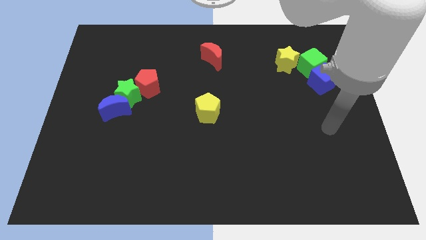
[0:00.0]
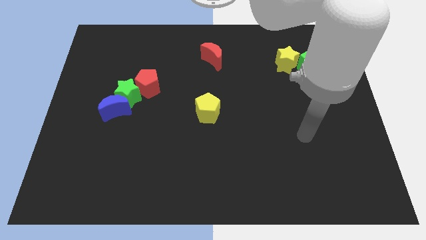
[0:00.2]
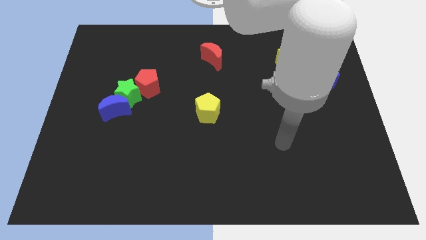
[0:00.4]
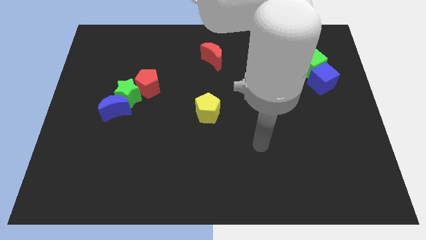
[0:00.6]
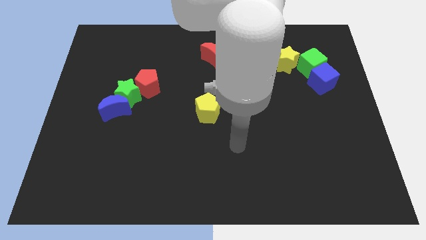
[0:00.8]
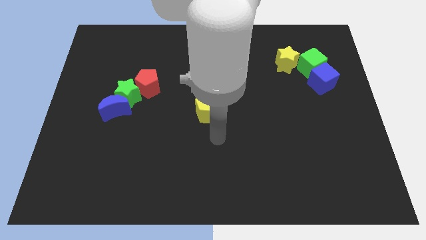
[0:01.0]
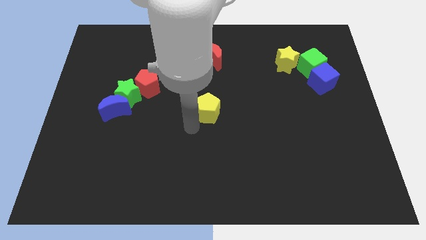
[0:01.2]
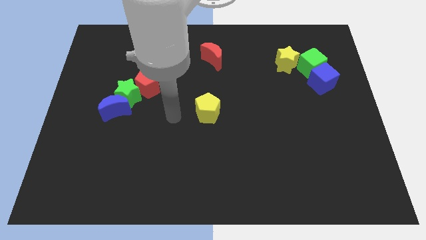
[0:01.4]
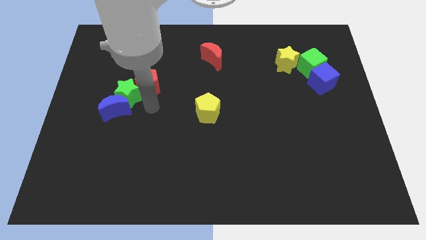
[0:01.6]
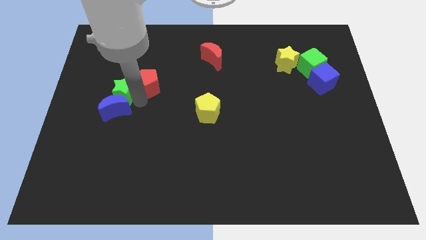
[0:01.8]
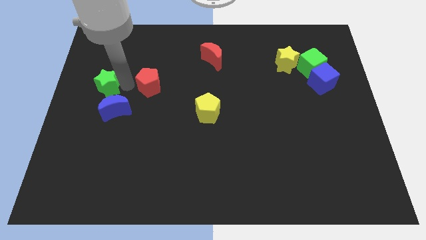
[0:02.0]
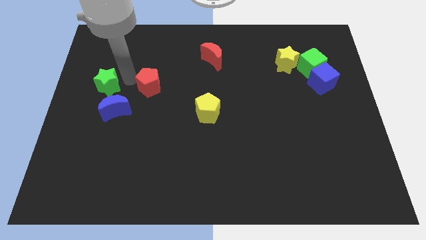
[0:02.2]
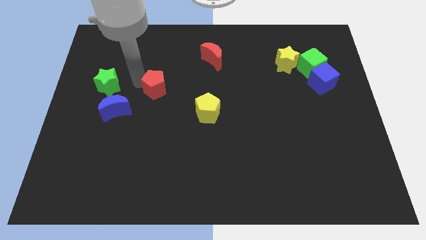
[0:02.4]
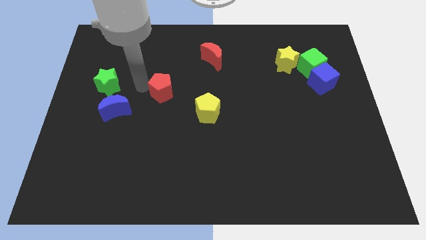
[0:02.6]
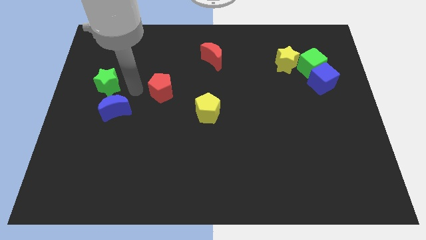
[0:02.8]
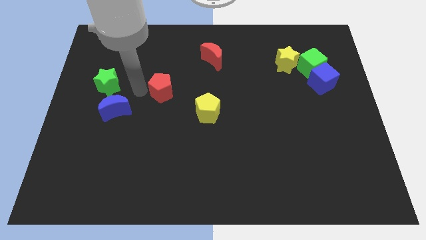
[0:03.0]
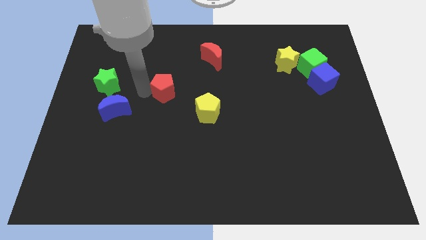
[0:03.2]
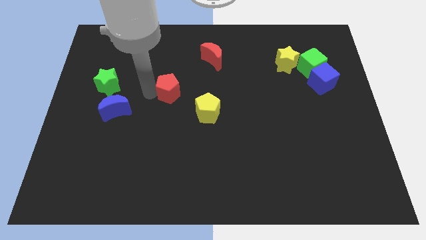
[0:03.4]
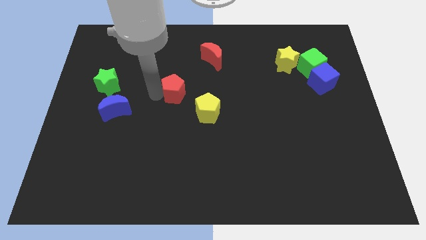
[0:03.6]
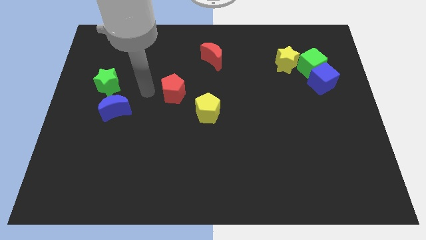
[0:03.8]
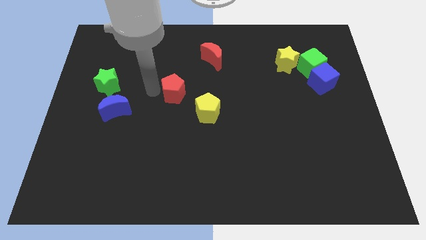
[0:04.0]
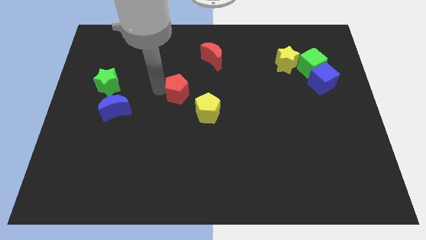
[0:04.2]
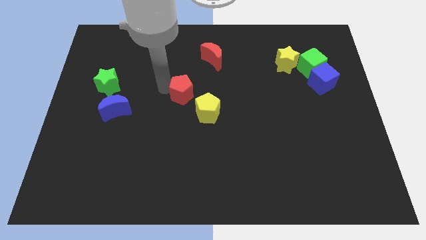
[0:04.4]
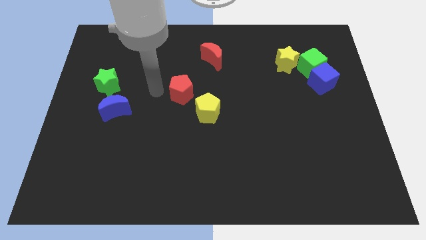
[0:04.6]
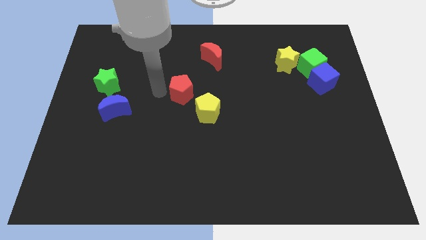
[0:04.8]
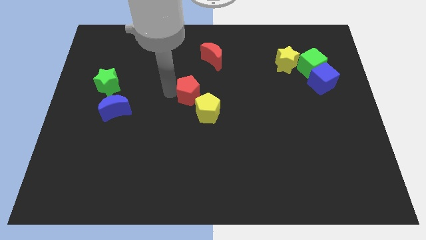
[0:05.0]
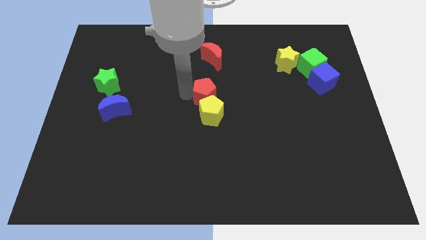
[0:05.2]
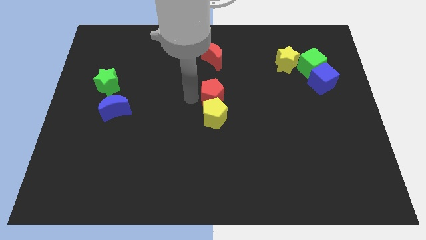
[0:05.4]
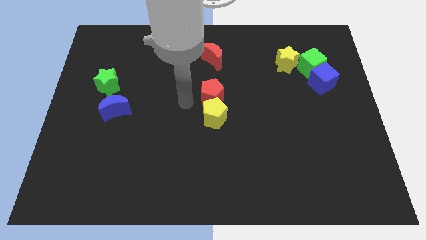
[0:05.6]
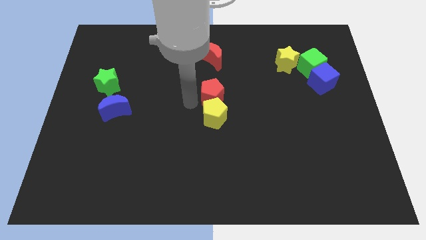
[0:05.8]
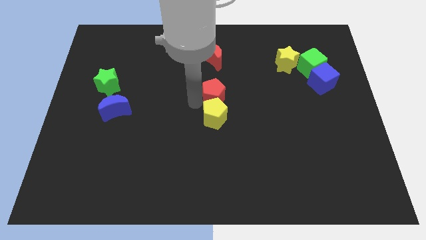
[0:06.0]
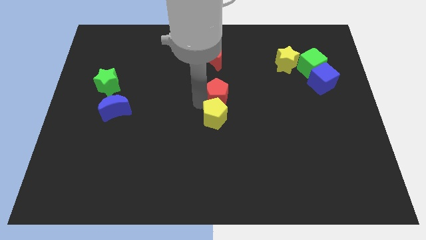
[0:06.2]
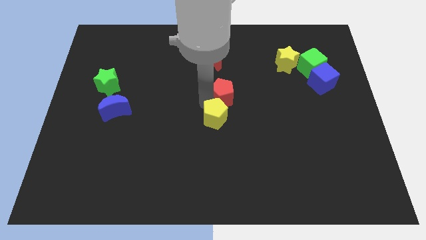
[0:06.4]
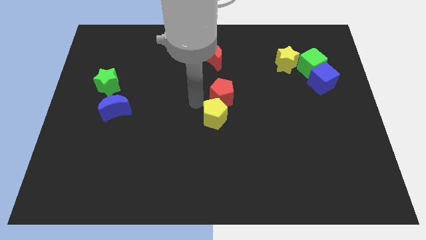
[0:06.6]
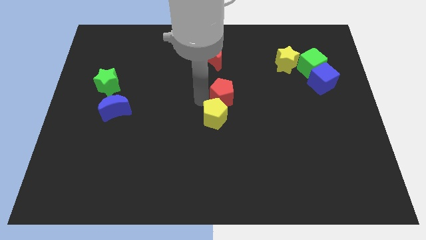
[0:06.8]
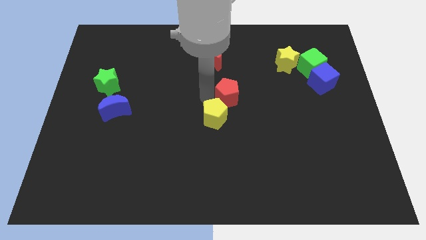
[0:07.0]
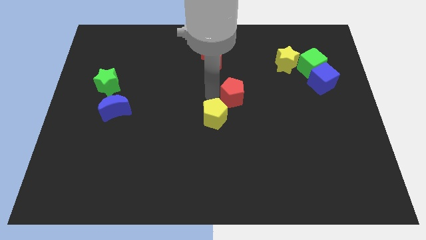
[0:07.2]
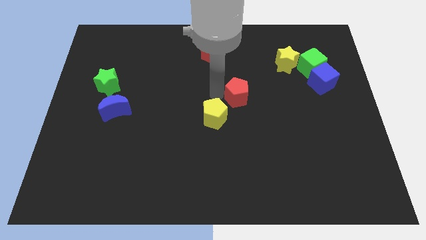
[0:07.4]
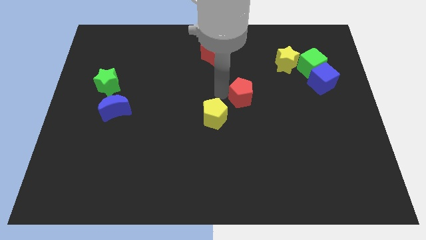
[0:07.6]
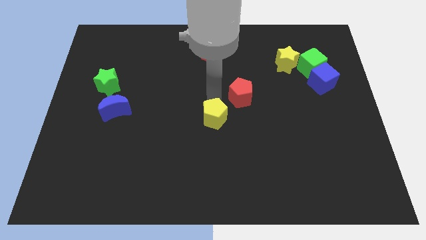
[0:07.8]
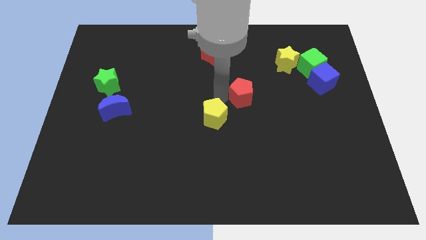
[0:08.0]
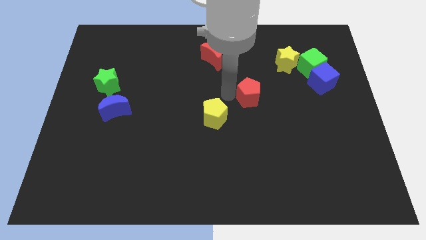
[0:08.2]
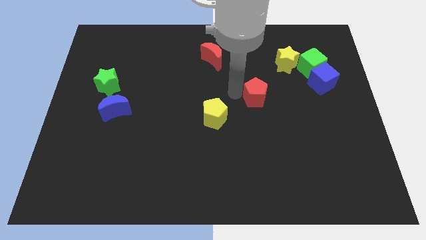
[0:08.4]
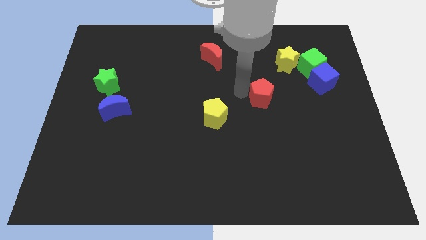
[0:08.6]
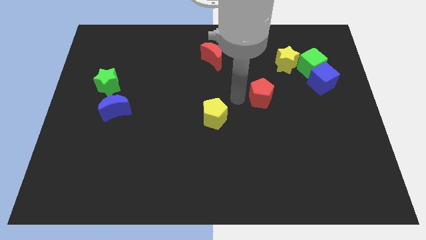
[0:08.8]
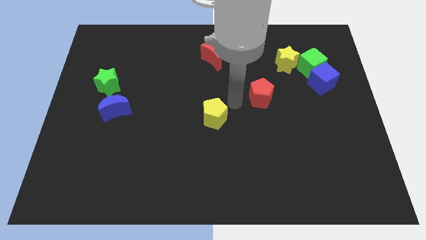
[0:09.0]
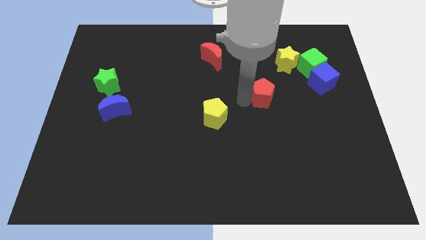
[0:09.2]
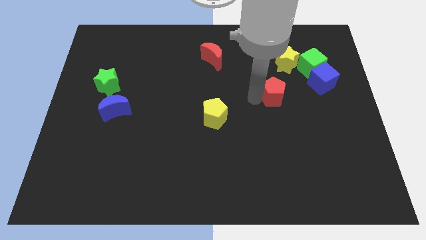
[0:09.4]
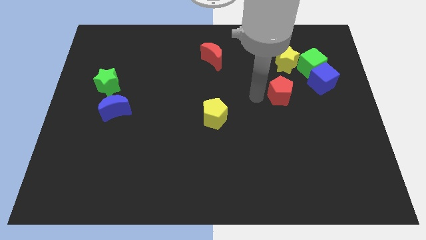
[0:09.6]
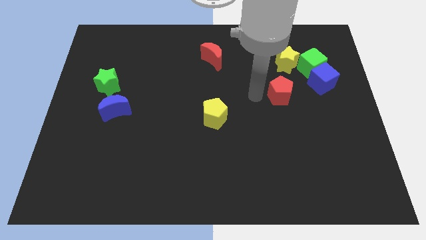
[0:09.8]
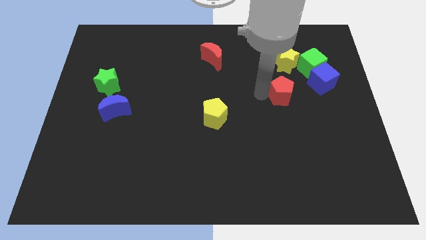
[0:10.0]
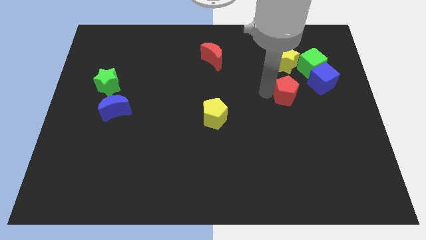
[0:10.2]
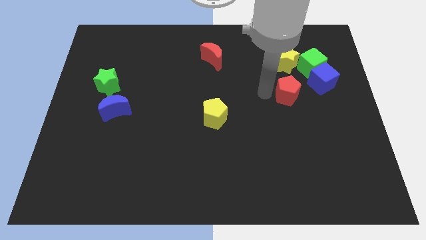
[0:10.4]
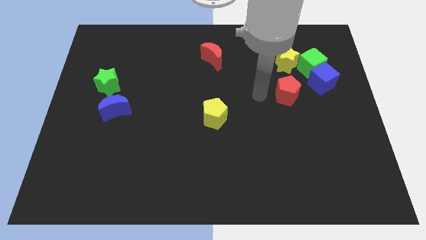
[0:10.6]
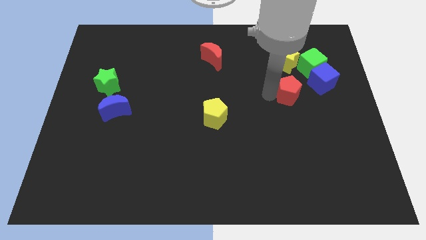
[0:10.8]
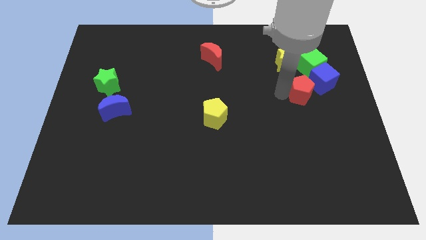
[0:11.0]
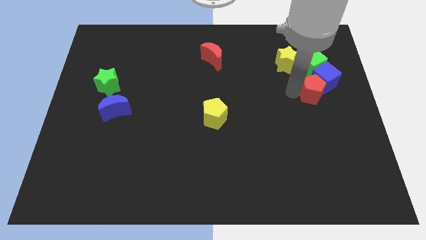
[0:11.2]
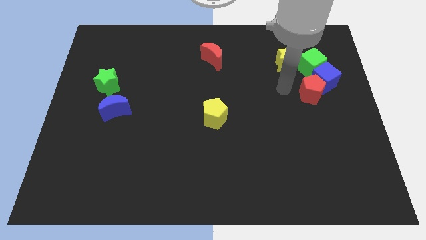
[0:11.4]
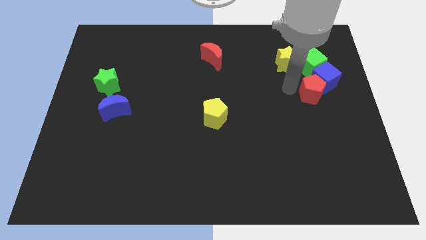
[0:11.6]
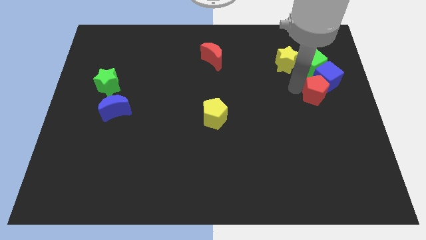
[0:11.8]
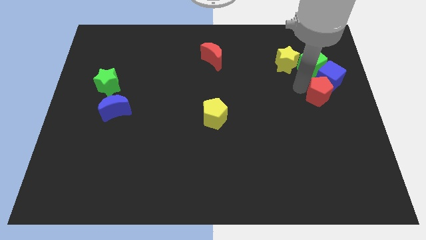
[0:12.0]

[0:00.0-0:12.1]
move the red pentagon to the center right

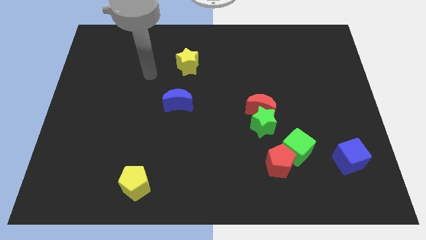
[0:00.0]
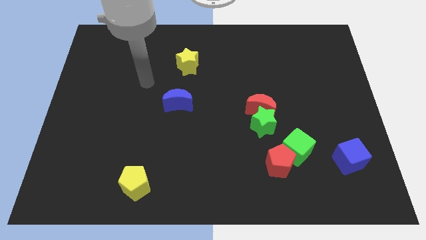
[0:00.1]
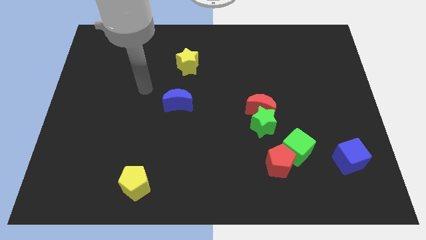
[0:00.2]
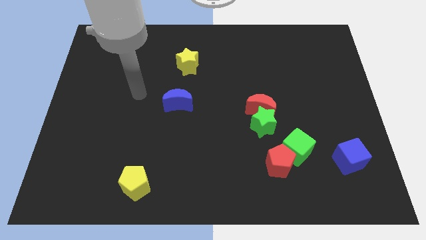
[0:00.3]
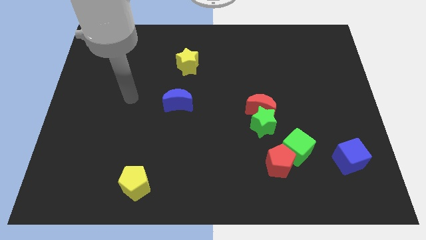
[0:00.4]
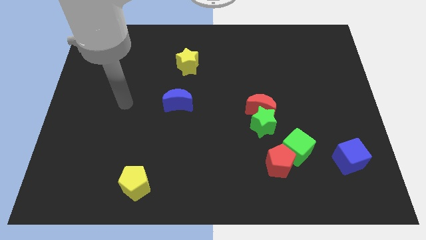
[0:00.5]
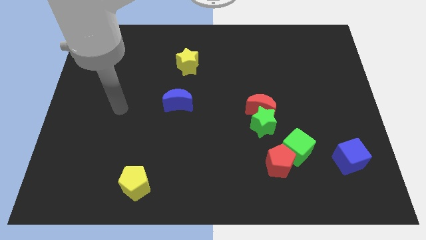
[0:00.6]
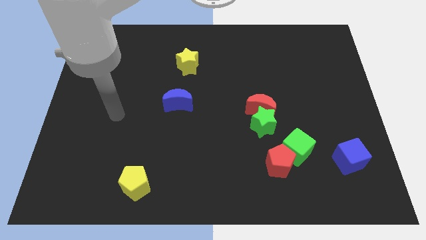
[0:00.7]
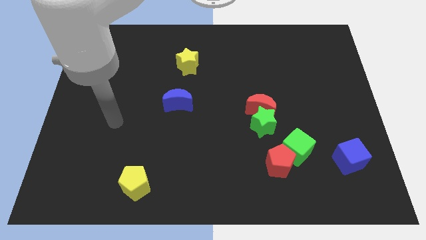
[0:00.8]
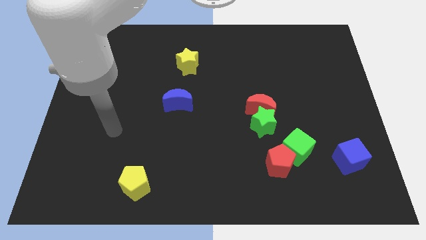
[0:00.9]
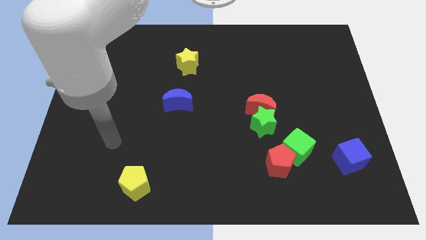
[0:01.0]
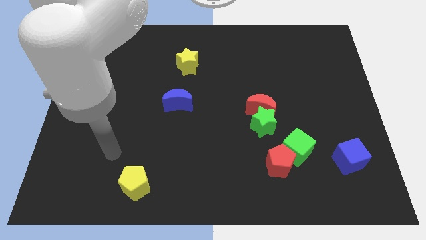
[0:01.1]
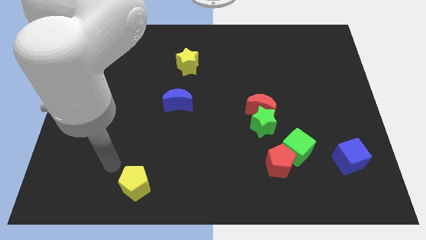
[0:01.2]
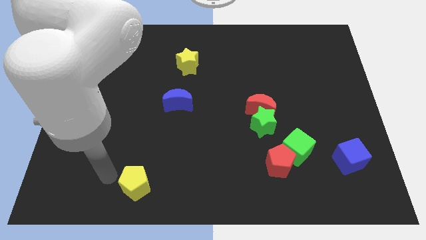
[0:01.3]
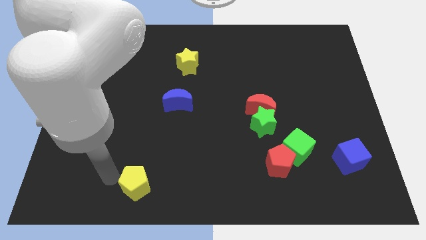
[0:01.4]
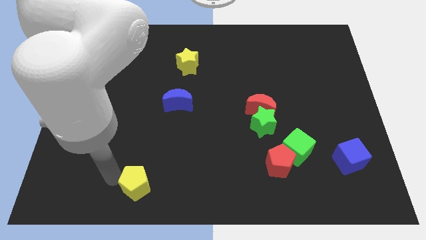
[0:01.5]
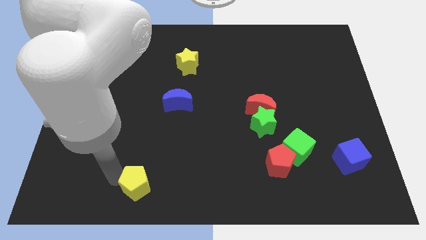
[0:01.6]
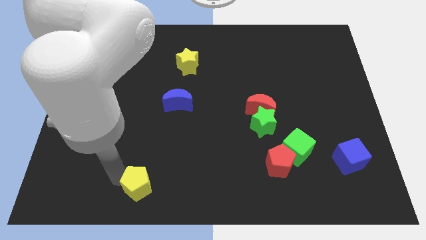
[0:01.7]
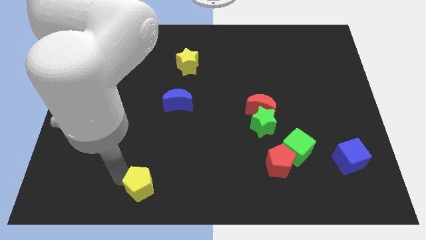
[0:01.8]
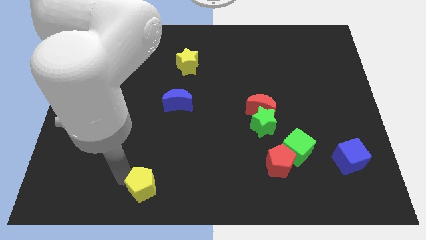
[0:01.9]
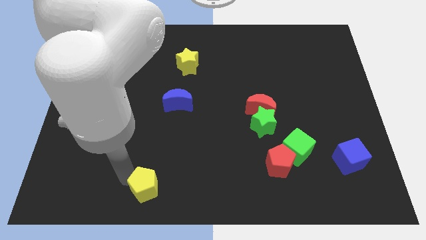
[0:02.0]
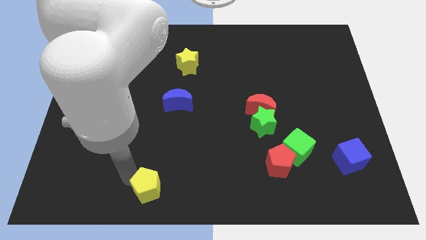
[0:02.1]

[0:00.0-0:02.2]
move the yellow pentagon to the bottom
